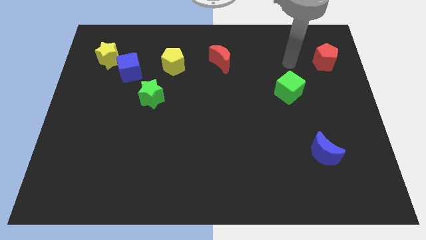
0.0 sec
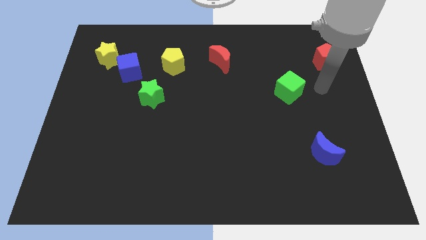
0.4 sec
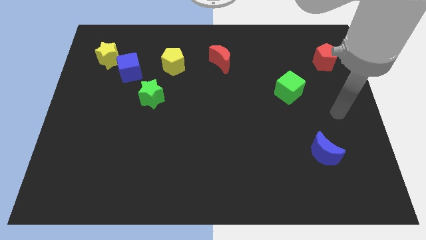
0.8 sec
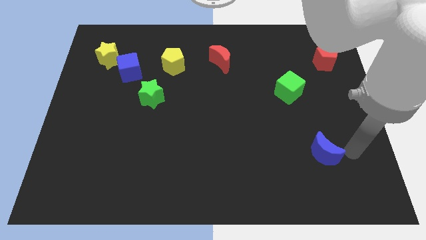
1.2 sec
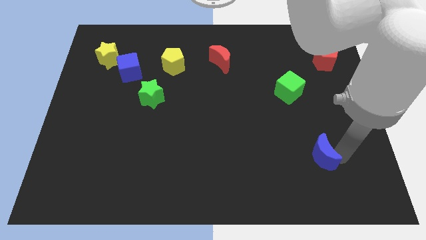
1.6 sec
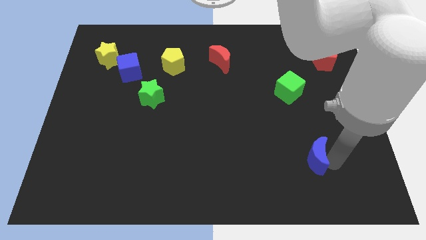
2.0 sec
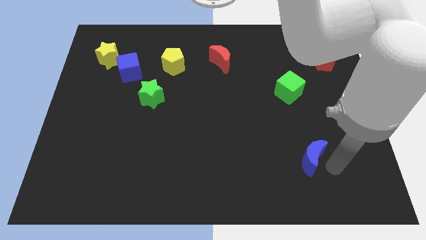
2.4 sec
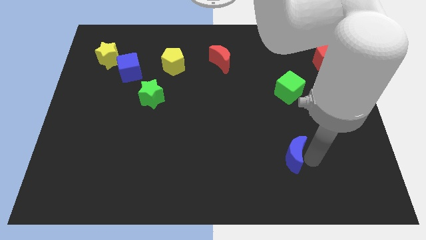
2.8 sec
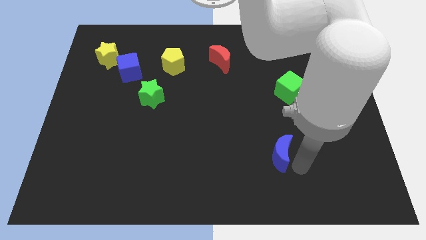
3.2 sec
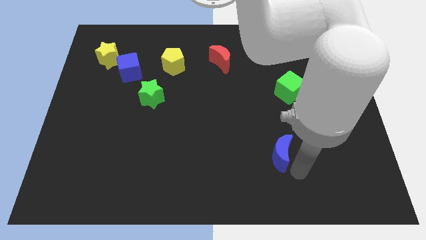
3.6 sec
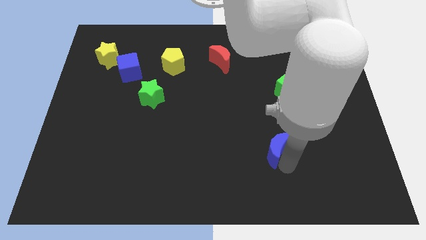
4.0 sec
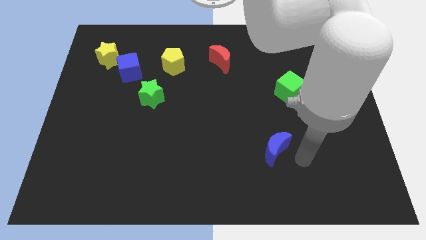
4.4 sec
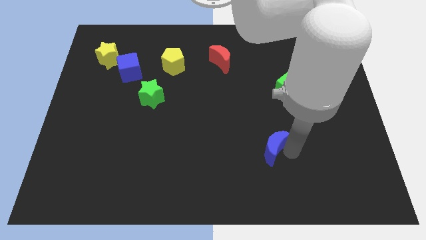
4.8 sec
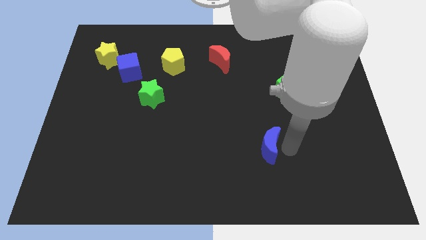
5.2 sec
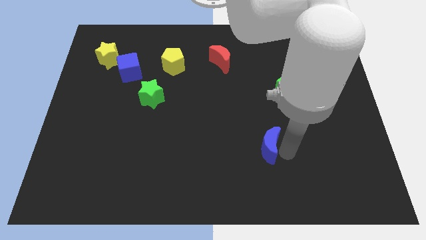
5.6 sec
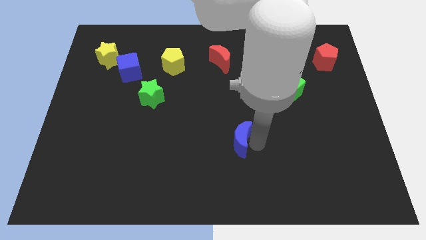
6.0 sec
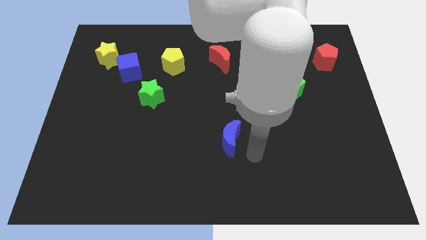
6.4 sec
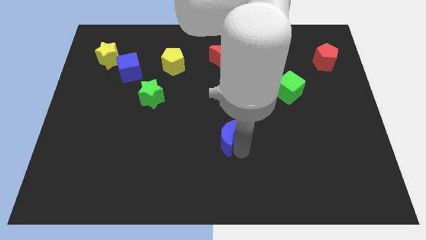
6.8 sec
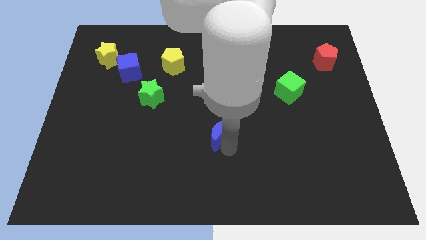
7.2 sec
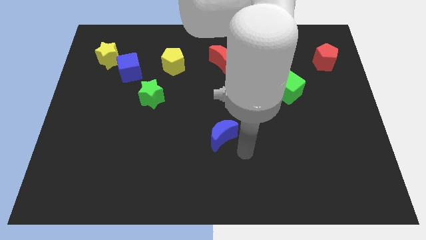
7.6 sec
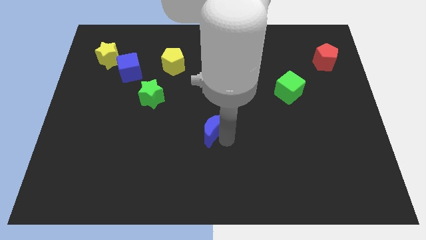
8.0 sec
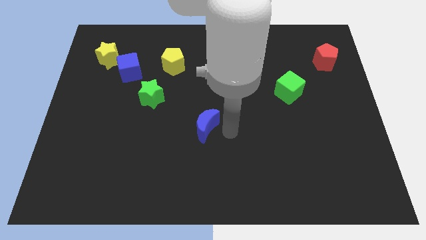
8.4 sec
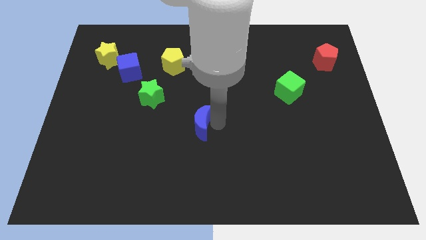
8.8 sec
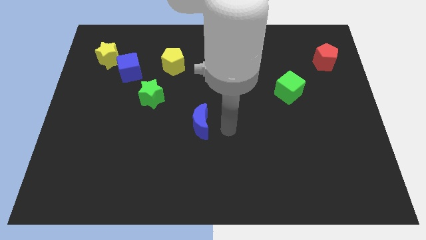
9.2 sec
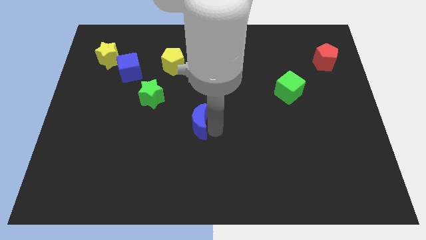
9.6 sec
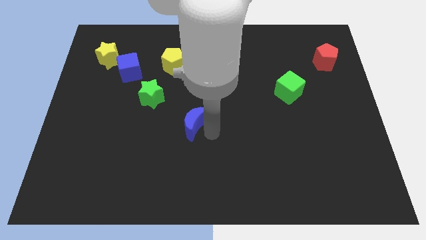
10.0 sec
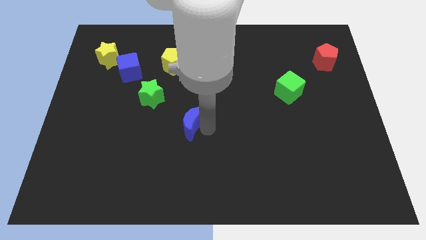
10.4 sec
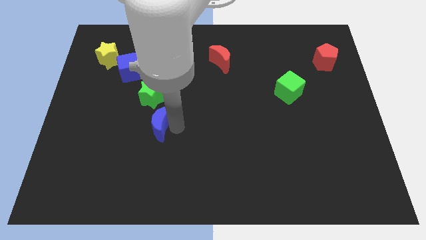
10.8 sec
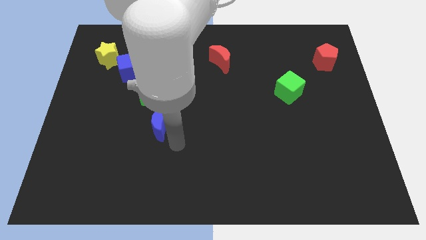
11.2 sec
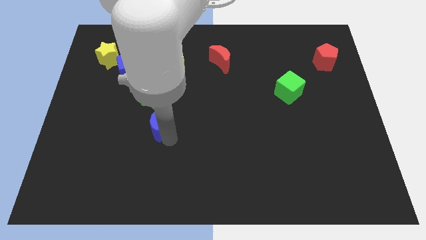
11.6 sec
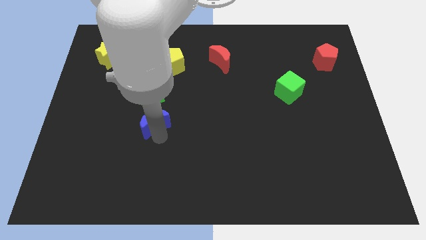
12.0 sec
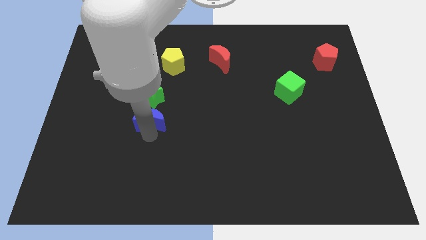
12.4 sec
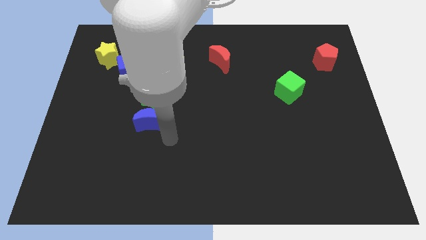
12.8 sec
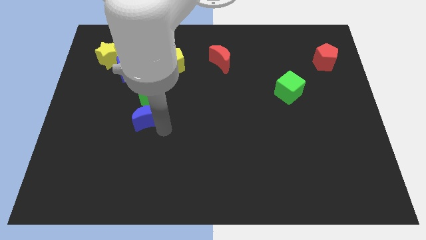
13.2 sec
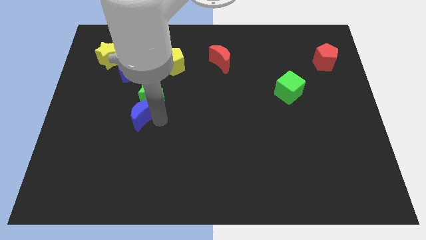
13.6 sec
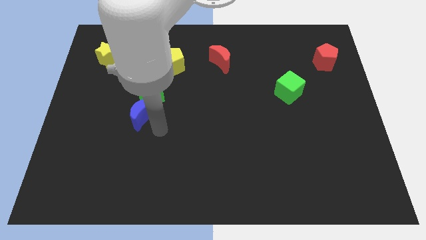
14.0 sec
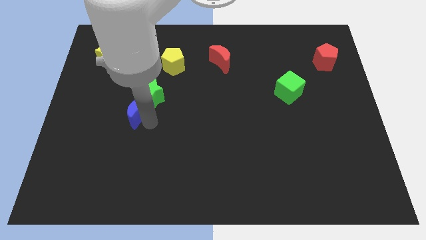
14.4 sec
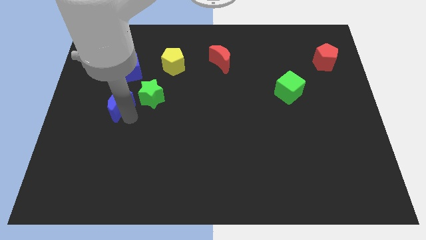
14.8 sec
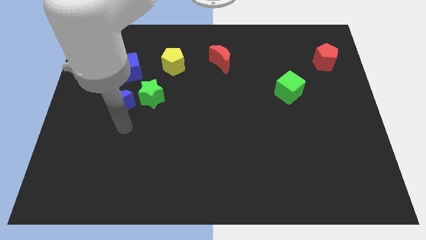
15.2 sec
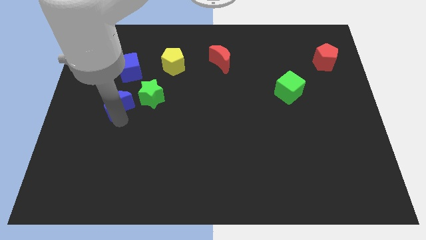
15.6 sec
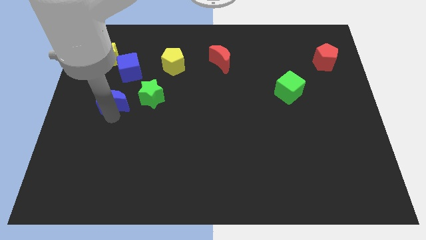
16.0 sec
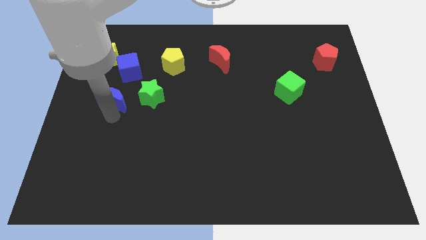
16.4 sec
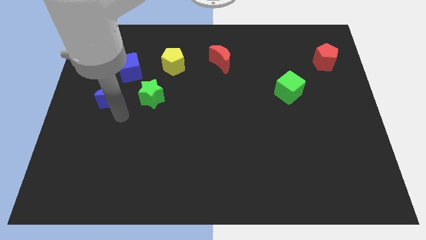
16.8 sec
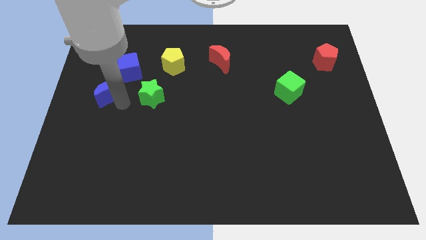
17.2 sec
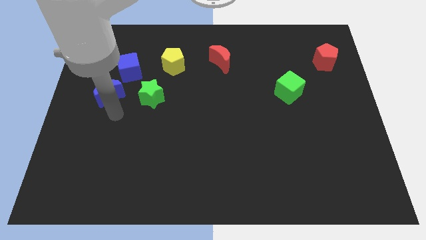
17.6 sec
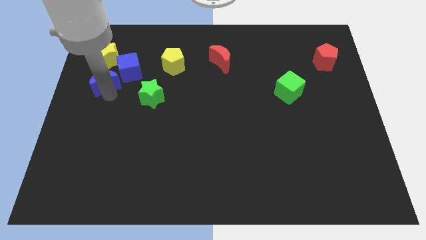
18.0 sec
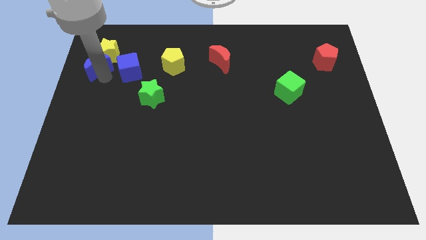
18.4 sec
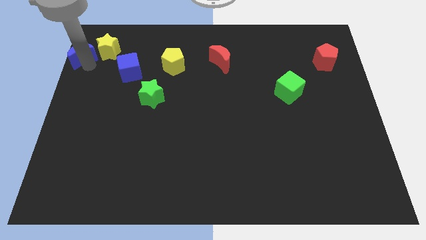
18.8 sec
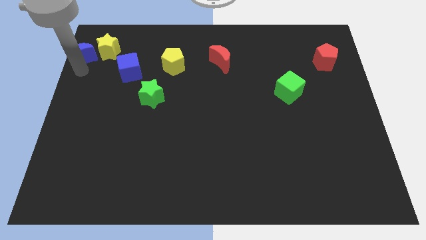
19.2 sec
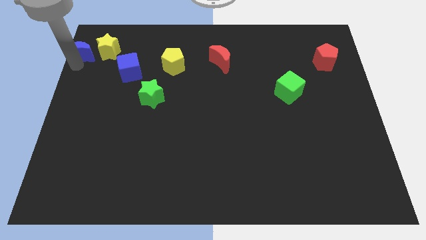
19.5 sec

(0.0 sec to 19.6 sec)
move the blue moon to the top left

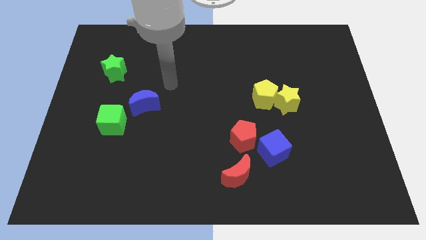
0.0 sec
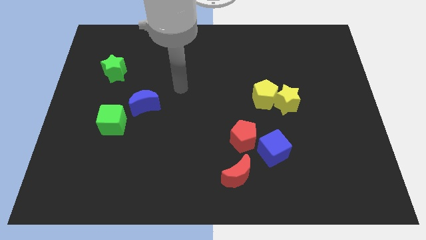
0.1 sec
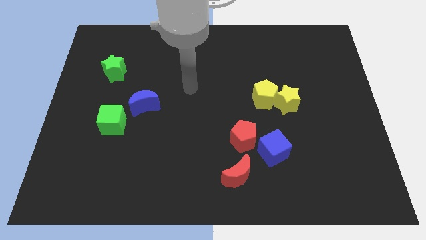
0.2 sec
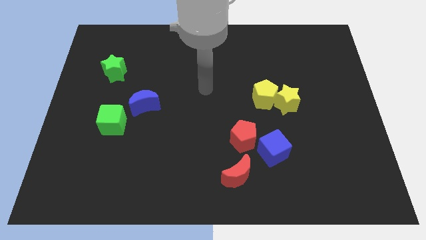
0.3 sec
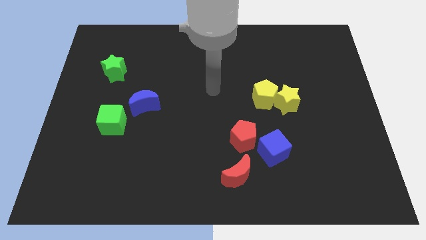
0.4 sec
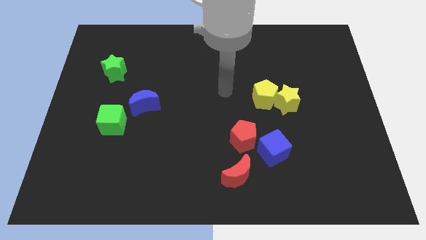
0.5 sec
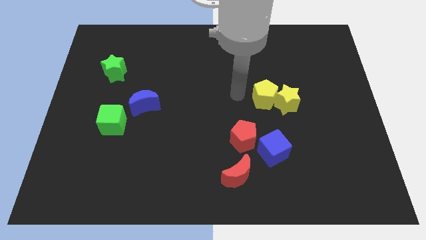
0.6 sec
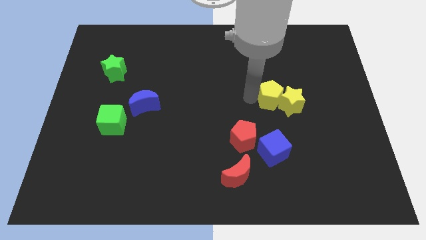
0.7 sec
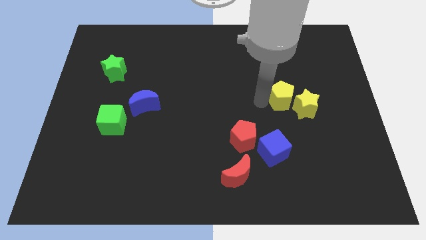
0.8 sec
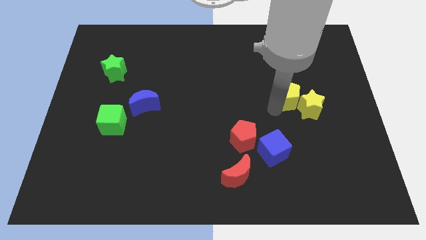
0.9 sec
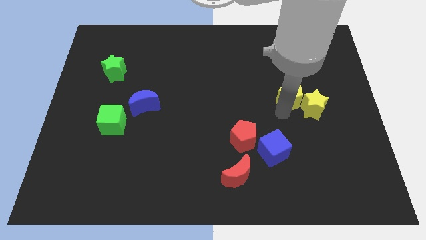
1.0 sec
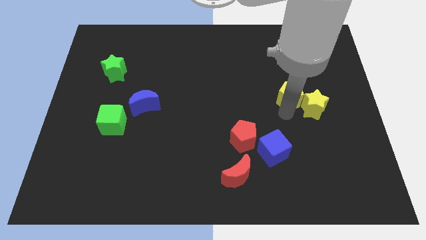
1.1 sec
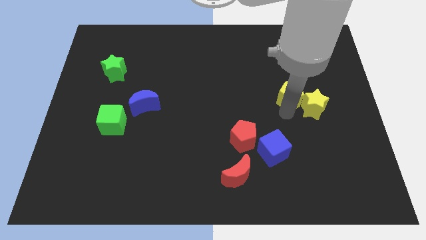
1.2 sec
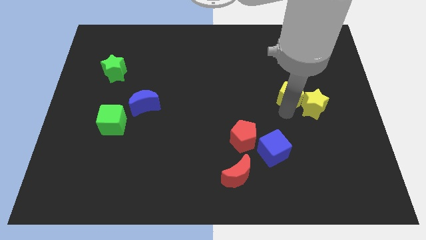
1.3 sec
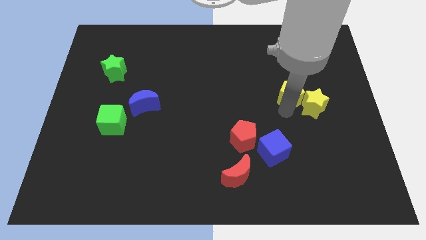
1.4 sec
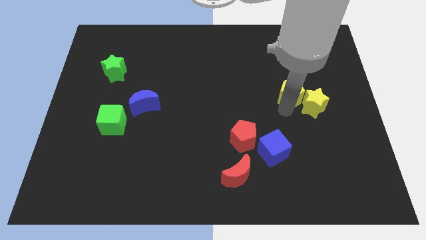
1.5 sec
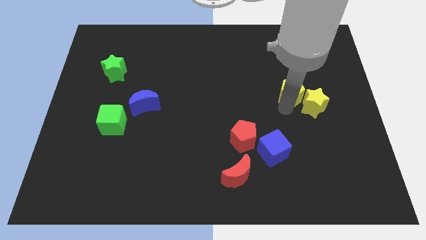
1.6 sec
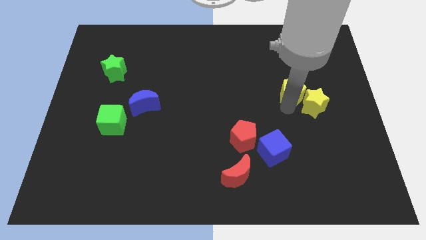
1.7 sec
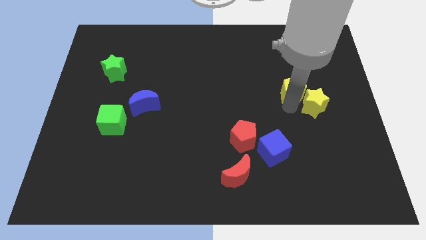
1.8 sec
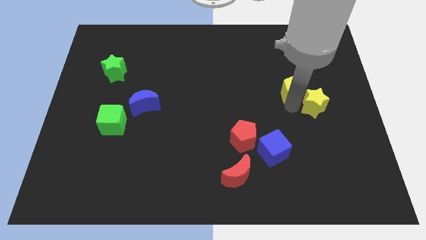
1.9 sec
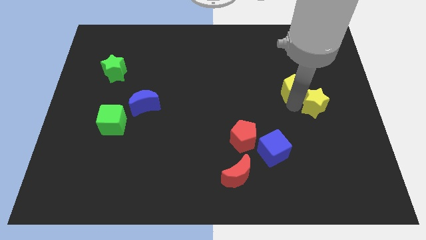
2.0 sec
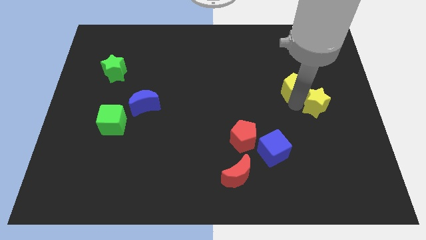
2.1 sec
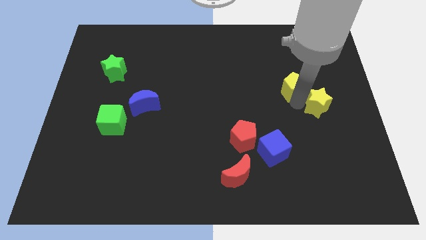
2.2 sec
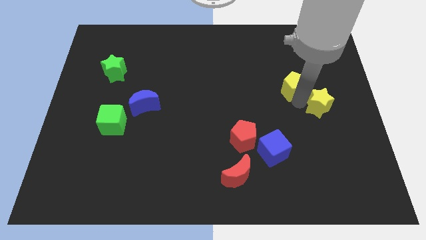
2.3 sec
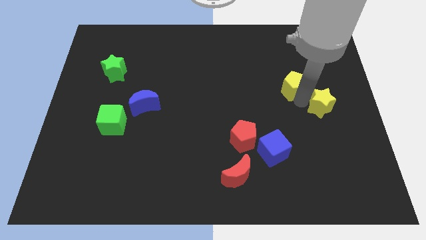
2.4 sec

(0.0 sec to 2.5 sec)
put the yellow star to the right side
